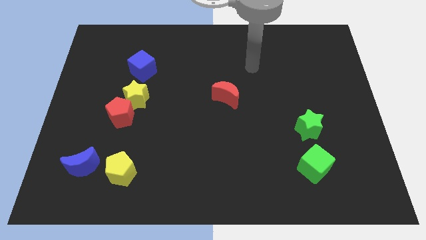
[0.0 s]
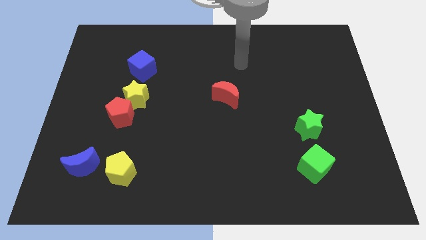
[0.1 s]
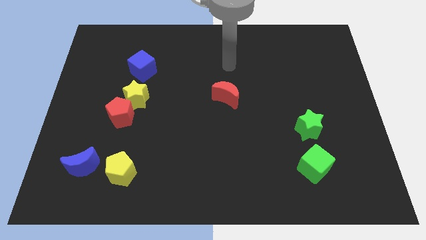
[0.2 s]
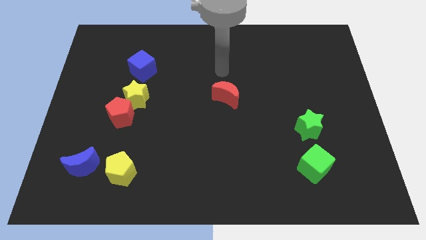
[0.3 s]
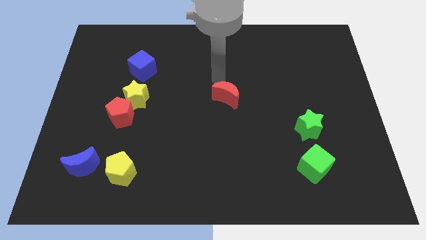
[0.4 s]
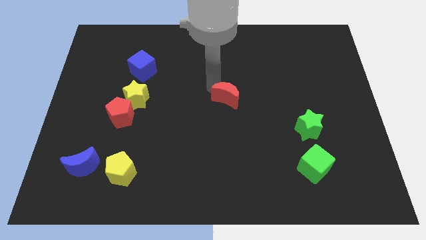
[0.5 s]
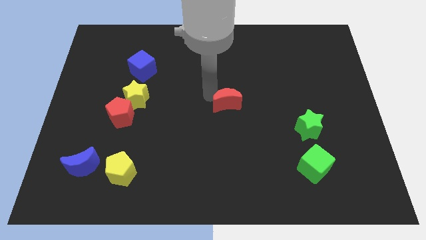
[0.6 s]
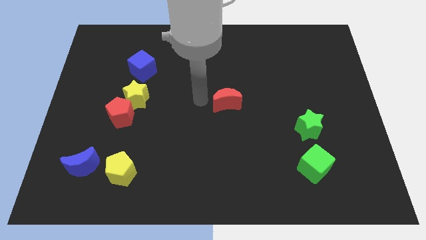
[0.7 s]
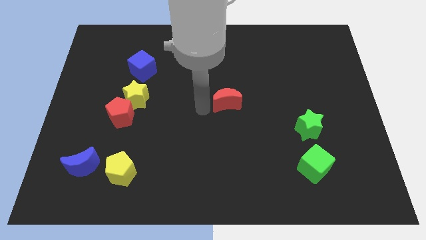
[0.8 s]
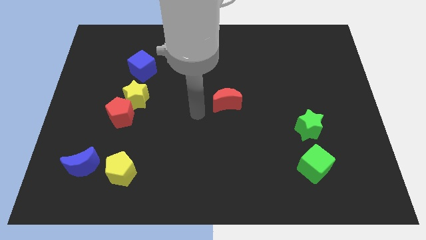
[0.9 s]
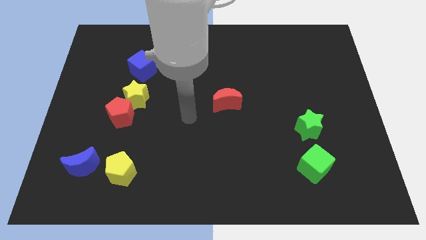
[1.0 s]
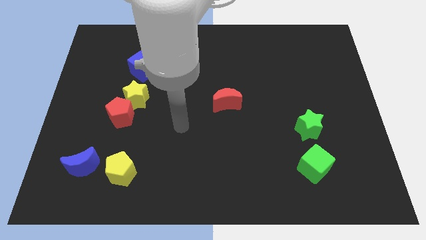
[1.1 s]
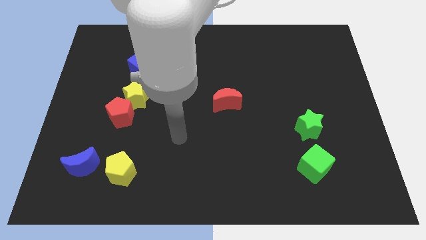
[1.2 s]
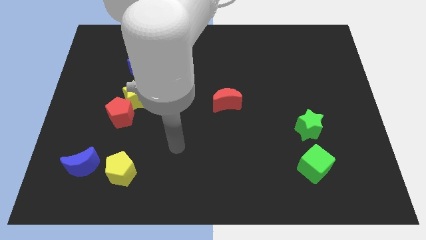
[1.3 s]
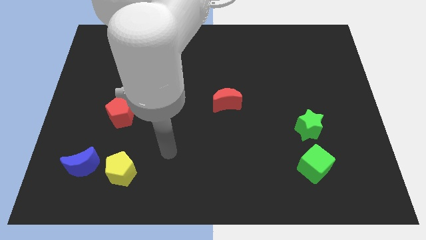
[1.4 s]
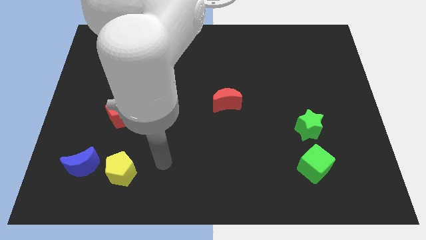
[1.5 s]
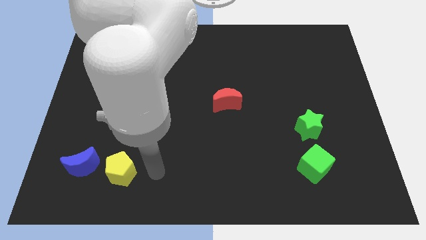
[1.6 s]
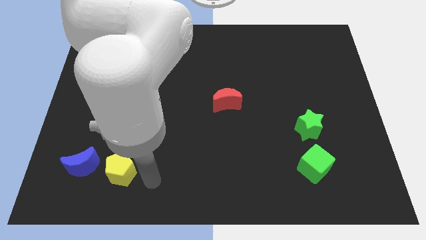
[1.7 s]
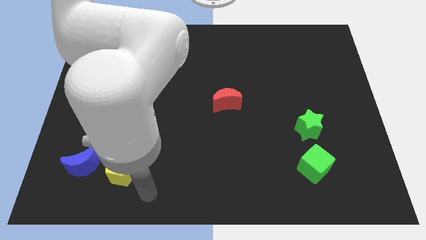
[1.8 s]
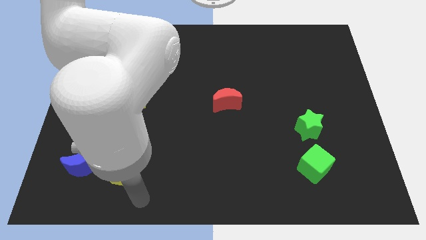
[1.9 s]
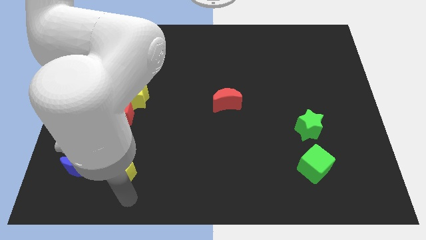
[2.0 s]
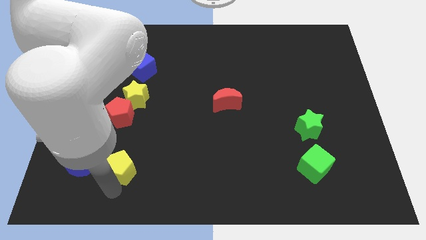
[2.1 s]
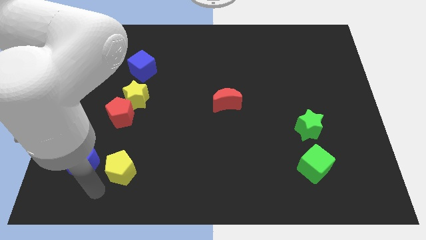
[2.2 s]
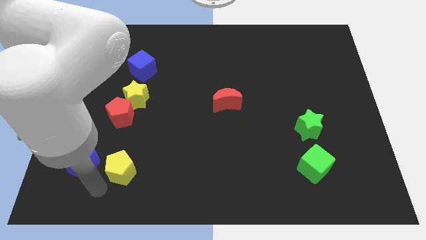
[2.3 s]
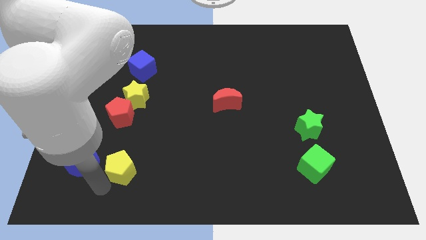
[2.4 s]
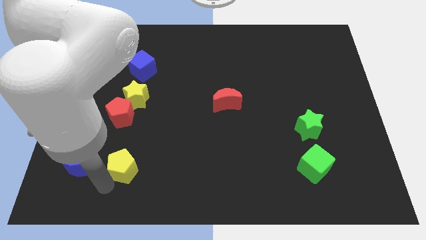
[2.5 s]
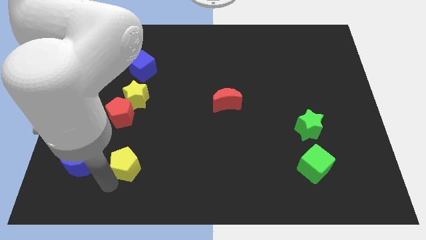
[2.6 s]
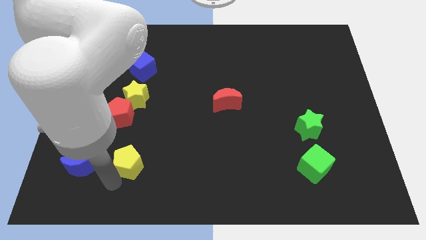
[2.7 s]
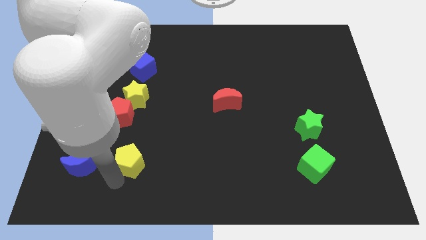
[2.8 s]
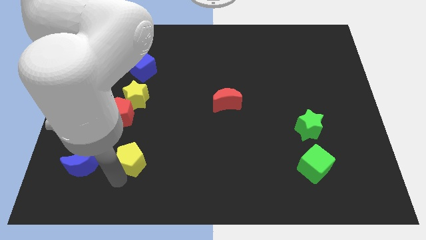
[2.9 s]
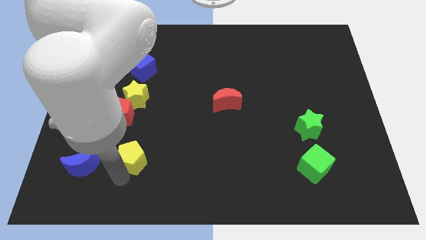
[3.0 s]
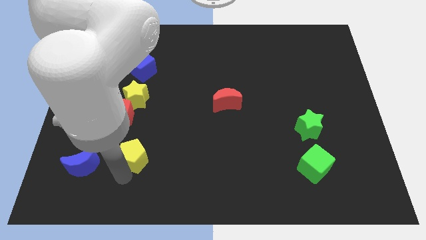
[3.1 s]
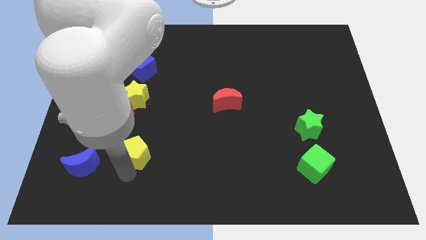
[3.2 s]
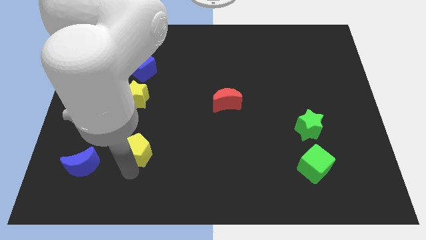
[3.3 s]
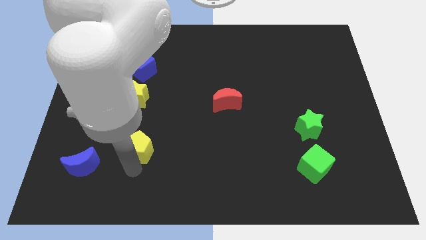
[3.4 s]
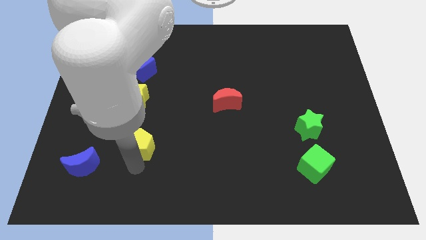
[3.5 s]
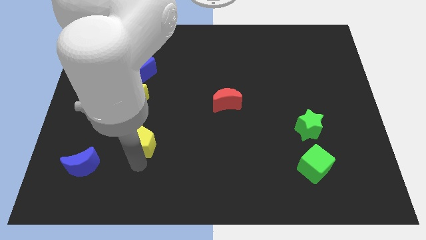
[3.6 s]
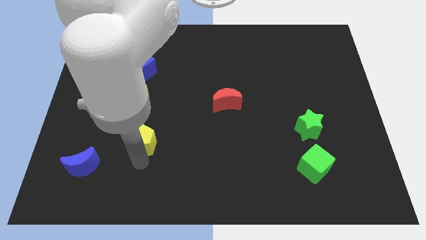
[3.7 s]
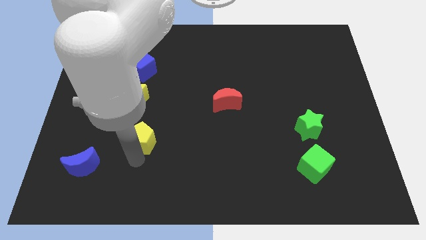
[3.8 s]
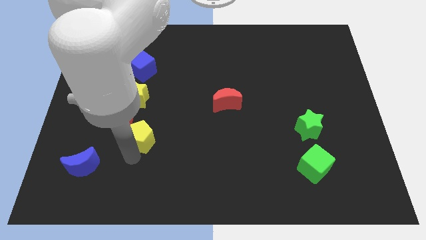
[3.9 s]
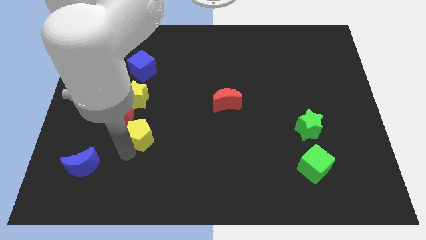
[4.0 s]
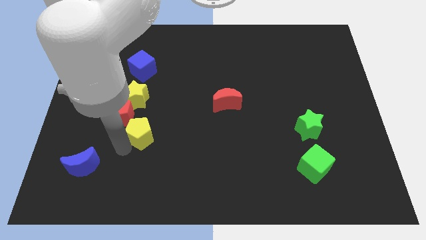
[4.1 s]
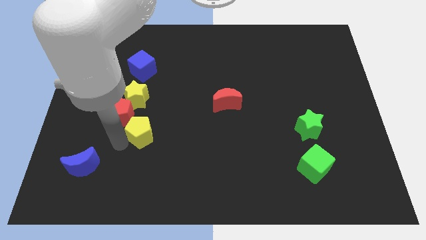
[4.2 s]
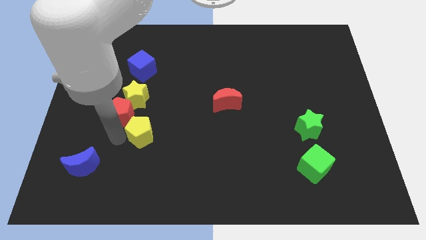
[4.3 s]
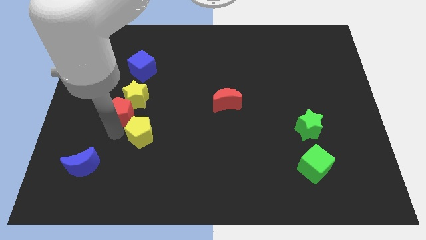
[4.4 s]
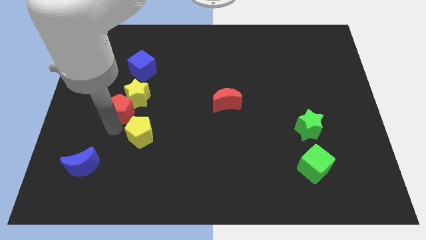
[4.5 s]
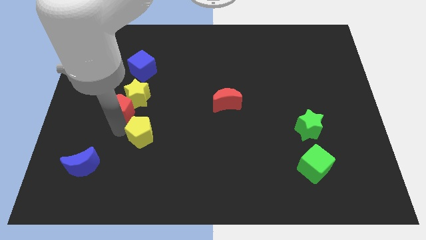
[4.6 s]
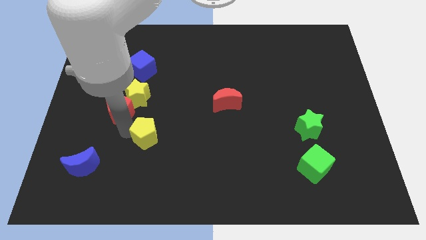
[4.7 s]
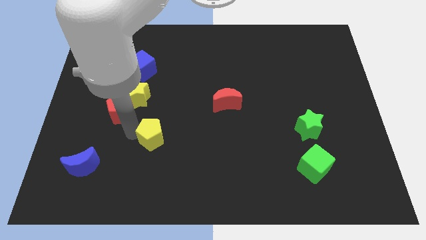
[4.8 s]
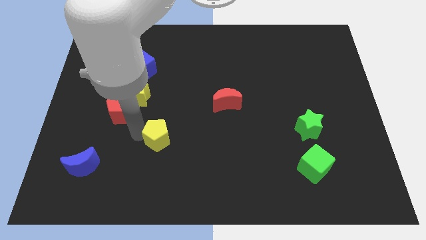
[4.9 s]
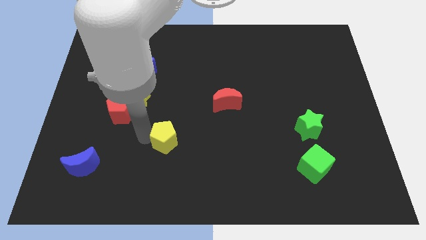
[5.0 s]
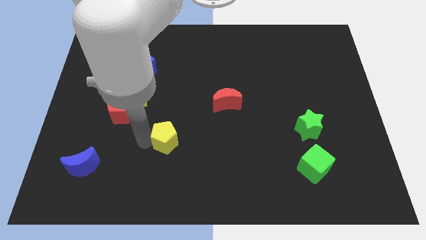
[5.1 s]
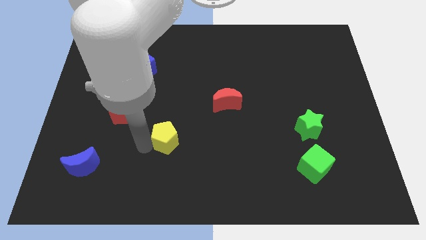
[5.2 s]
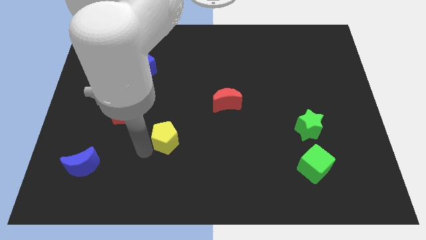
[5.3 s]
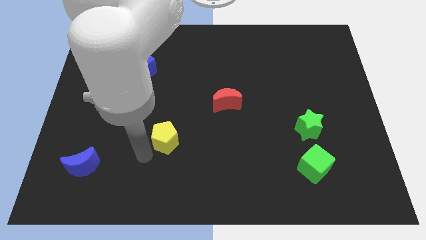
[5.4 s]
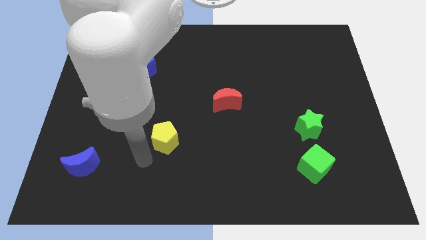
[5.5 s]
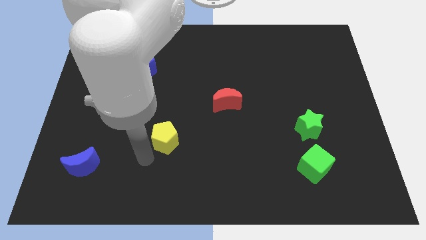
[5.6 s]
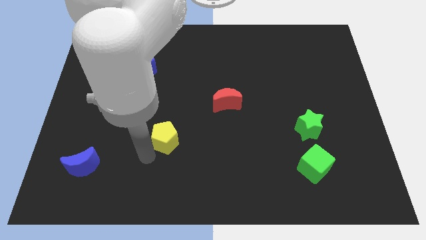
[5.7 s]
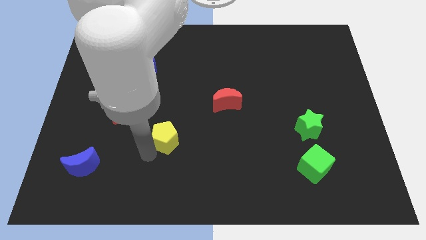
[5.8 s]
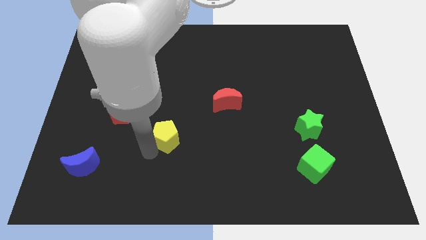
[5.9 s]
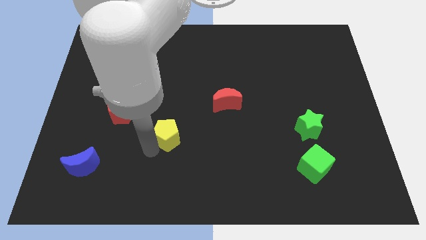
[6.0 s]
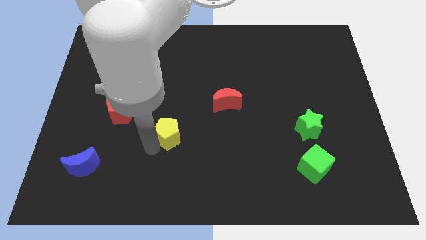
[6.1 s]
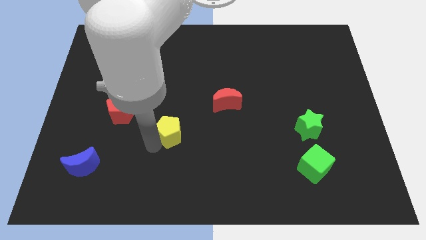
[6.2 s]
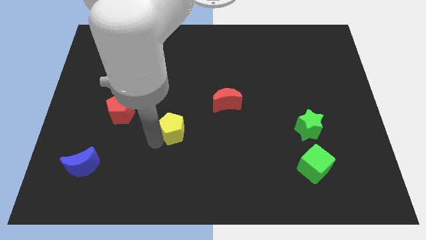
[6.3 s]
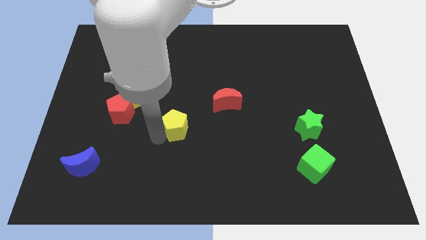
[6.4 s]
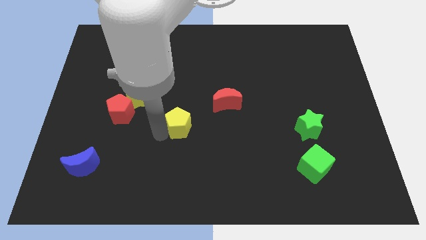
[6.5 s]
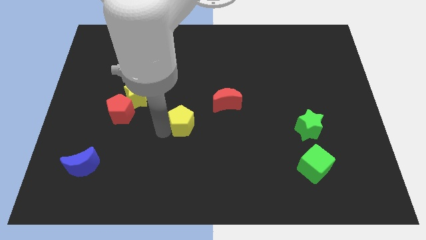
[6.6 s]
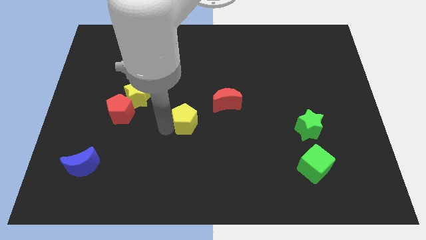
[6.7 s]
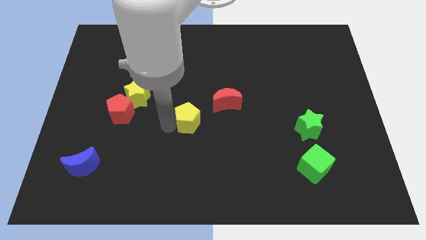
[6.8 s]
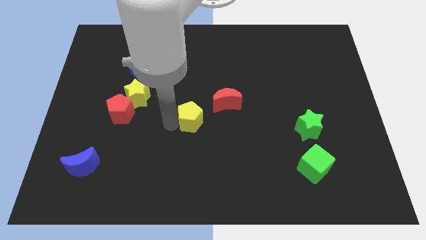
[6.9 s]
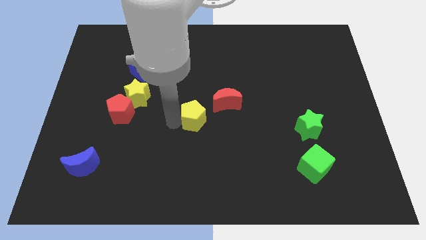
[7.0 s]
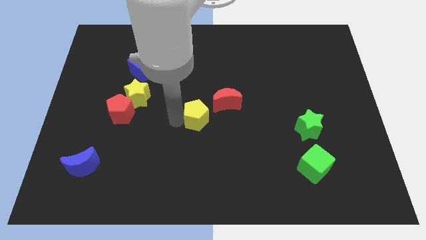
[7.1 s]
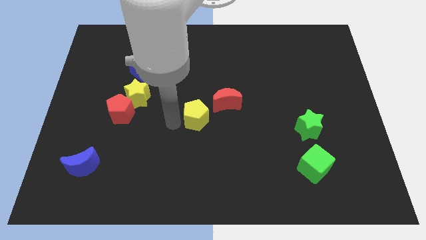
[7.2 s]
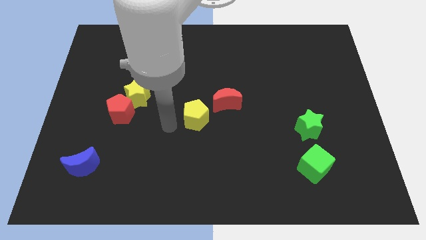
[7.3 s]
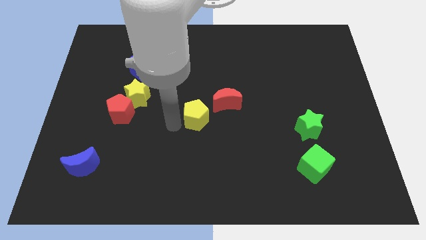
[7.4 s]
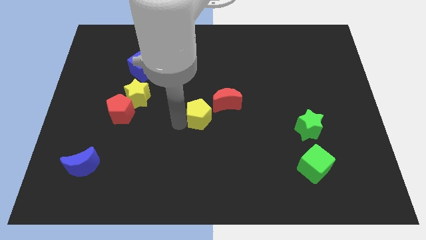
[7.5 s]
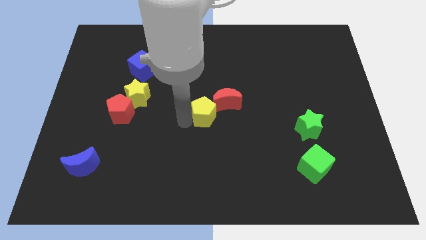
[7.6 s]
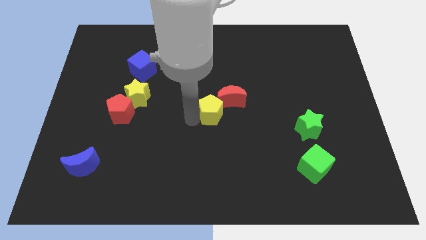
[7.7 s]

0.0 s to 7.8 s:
put the yellow pentagon next to the red moon
